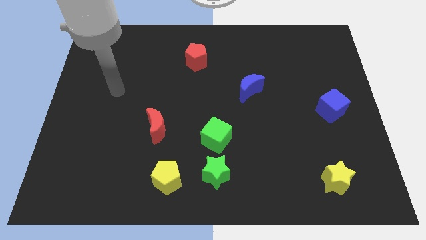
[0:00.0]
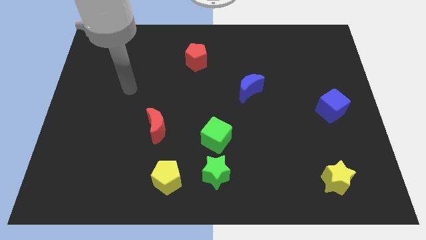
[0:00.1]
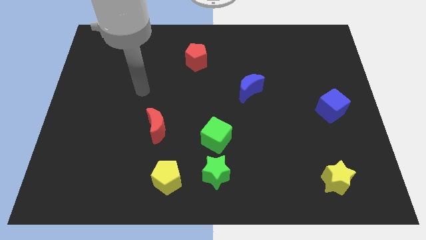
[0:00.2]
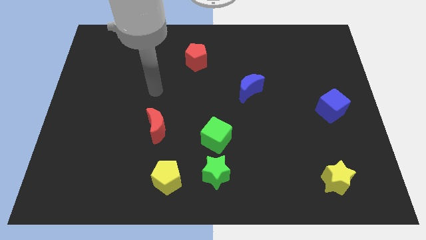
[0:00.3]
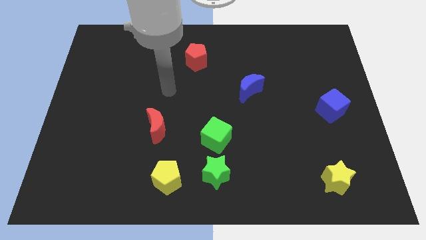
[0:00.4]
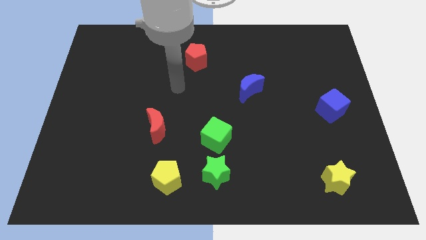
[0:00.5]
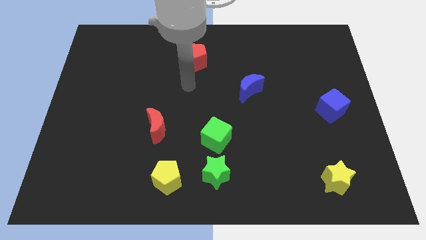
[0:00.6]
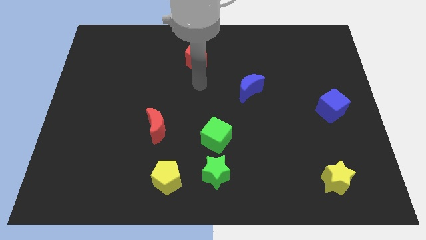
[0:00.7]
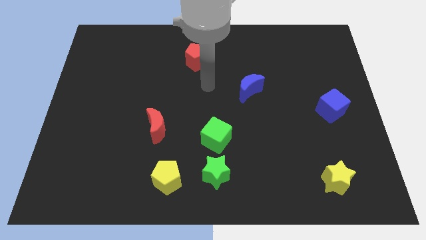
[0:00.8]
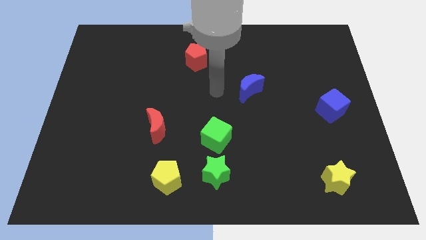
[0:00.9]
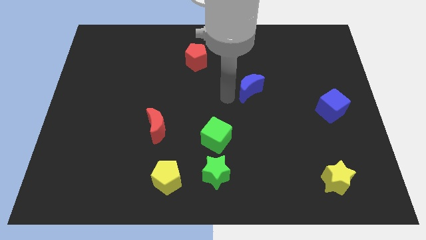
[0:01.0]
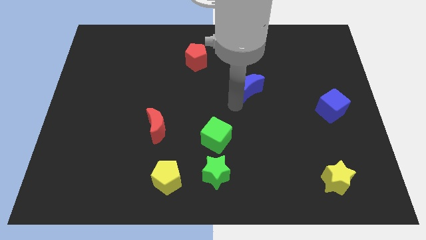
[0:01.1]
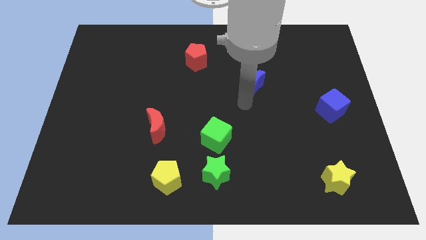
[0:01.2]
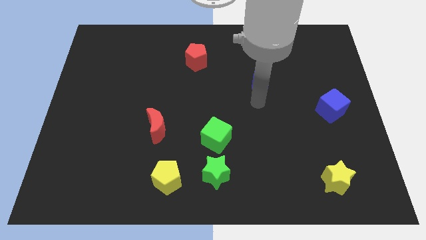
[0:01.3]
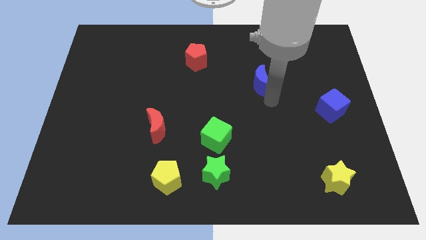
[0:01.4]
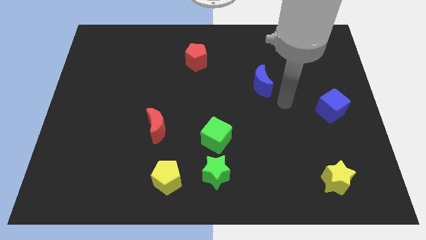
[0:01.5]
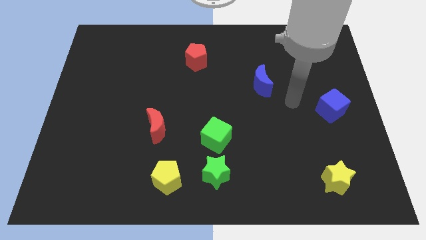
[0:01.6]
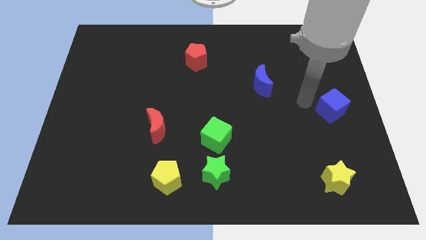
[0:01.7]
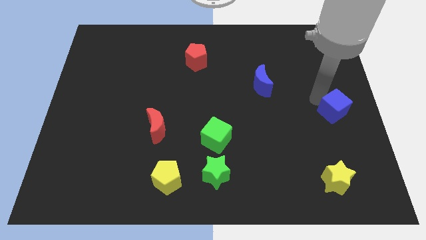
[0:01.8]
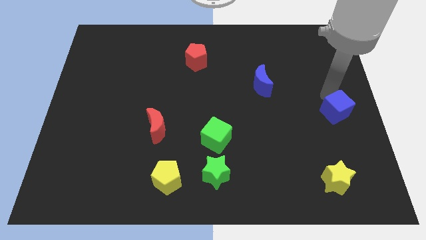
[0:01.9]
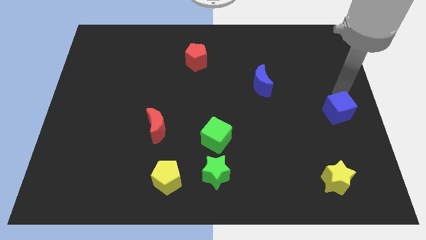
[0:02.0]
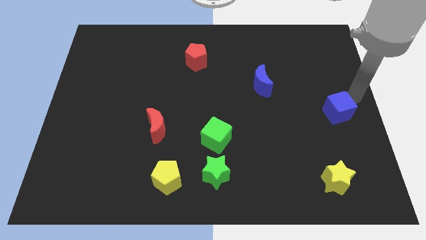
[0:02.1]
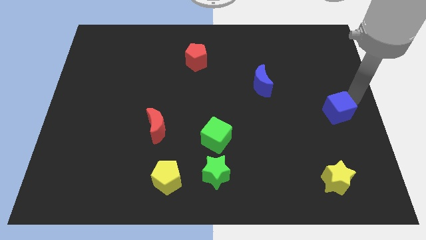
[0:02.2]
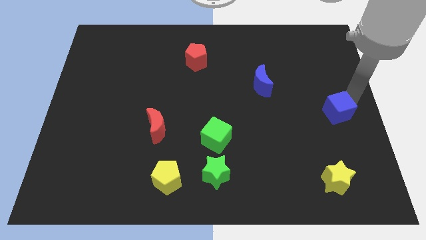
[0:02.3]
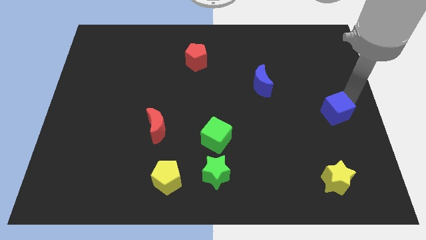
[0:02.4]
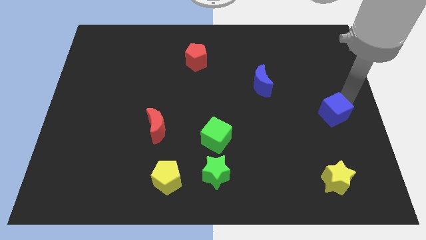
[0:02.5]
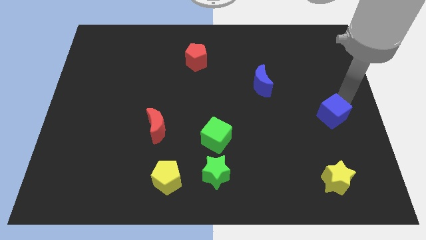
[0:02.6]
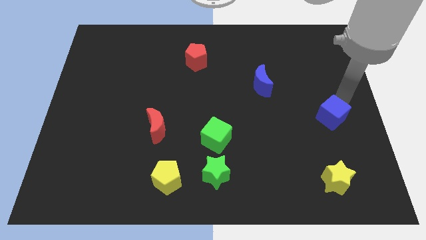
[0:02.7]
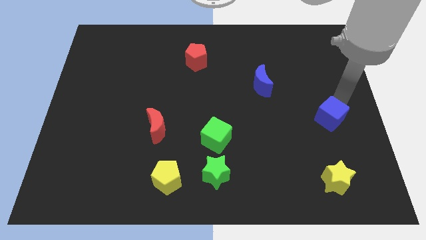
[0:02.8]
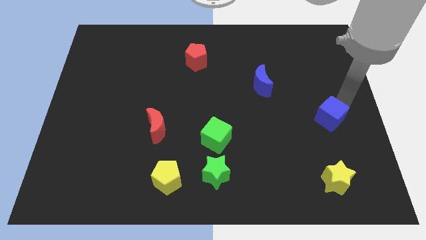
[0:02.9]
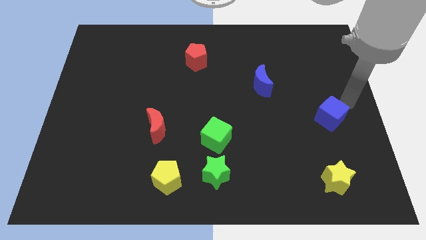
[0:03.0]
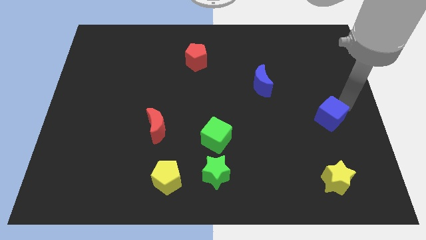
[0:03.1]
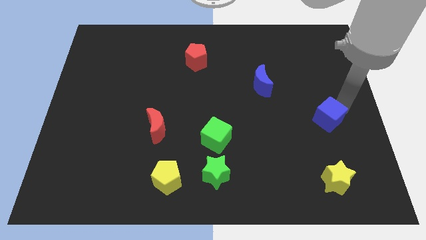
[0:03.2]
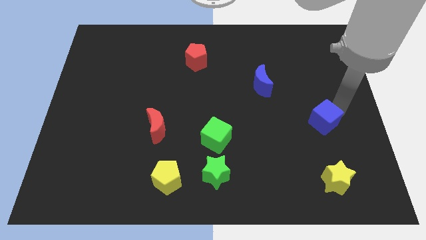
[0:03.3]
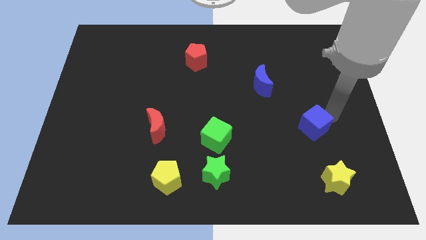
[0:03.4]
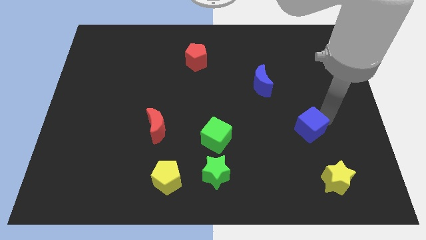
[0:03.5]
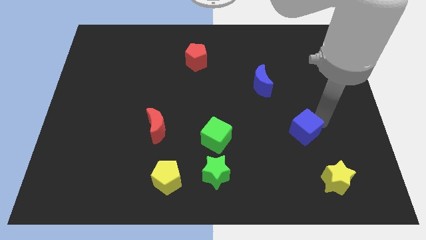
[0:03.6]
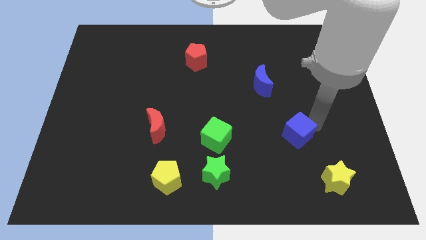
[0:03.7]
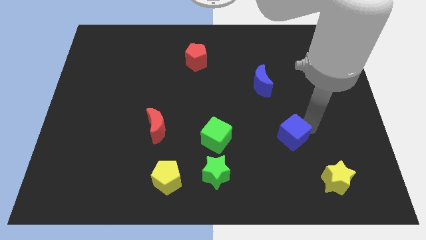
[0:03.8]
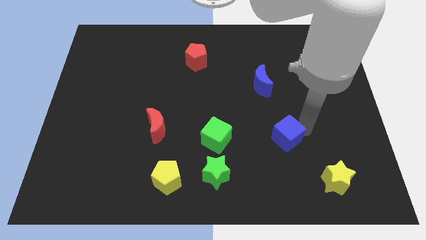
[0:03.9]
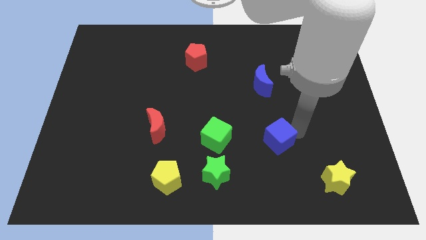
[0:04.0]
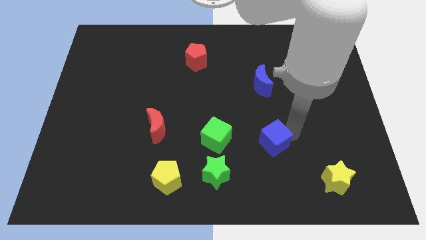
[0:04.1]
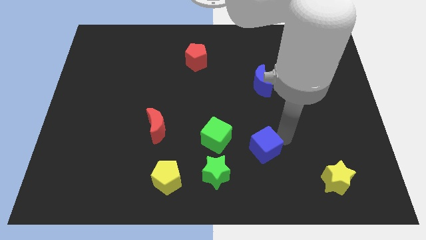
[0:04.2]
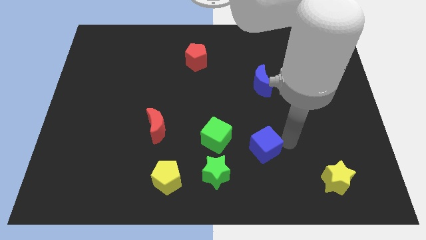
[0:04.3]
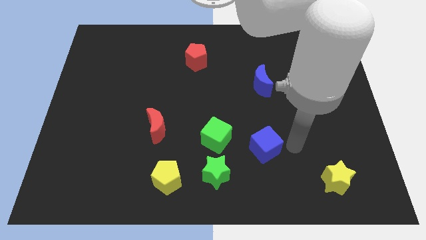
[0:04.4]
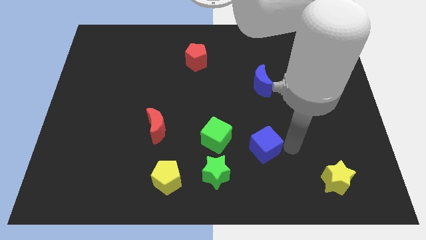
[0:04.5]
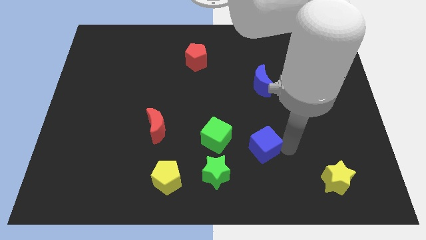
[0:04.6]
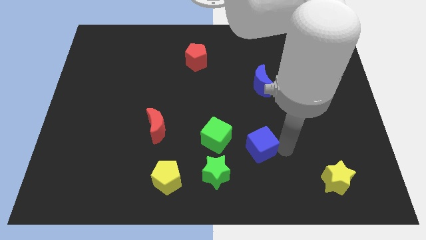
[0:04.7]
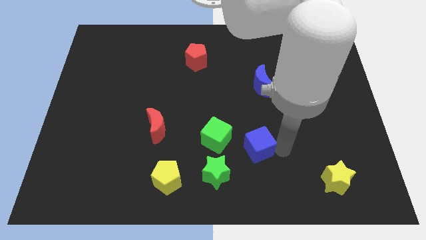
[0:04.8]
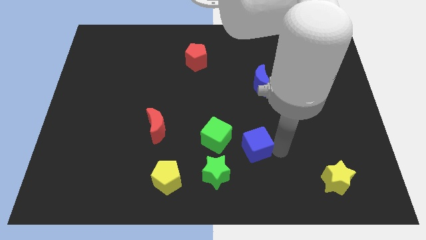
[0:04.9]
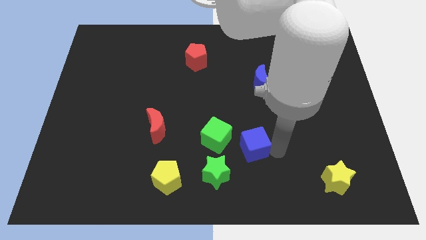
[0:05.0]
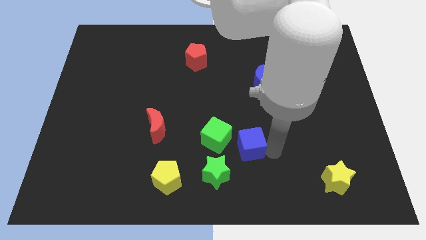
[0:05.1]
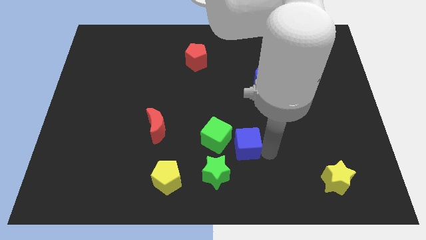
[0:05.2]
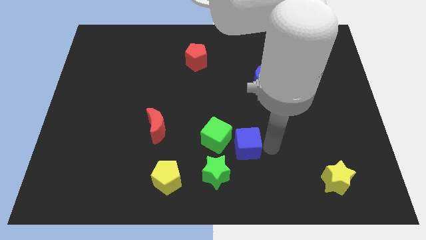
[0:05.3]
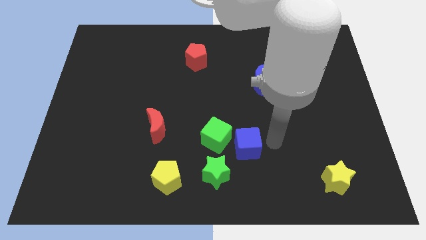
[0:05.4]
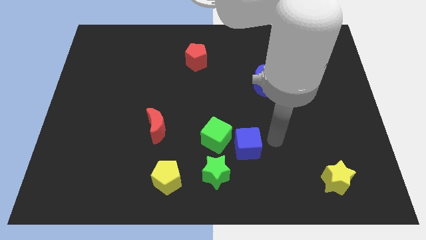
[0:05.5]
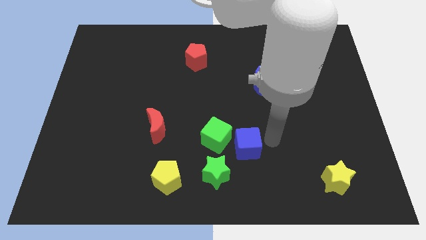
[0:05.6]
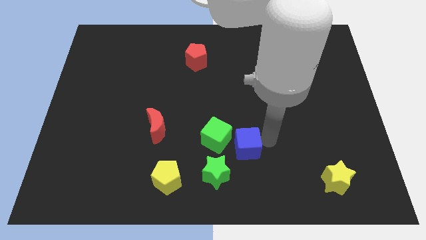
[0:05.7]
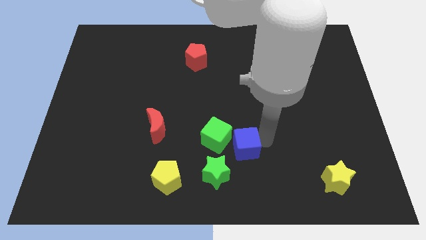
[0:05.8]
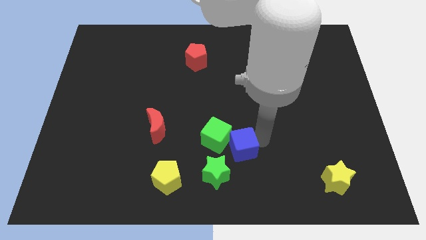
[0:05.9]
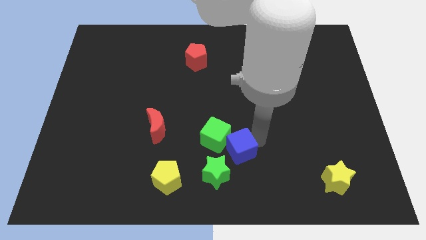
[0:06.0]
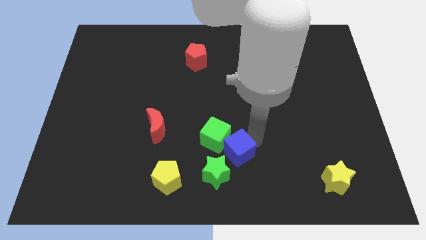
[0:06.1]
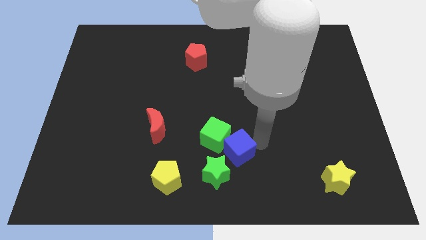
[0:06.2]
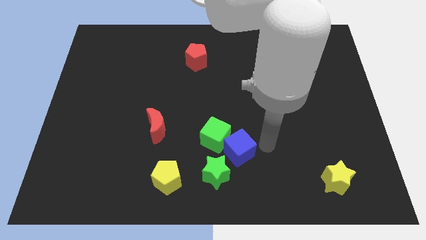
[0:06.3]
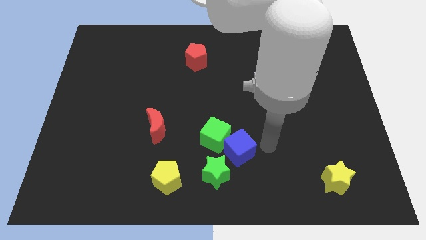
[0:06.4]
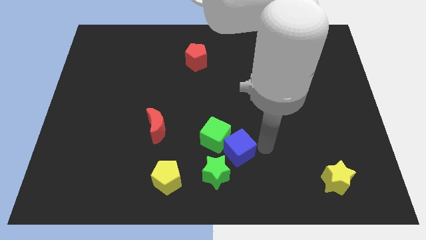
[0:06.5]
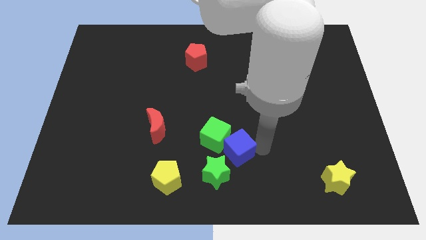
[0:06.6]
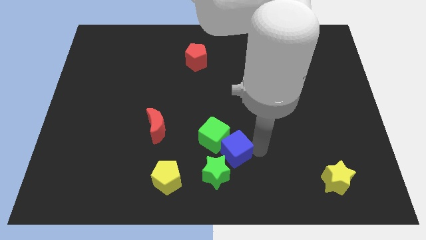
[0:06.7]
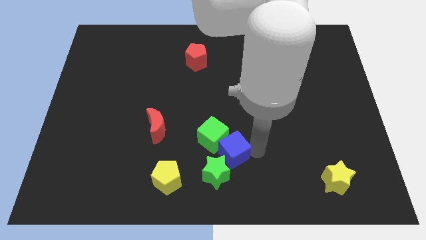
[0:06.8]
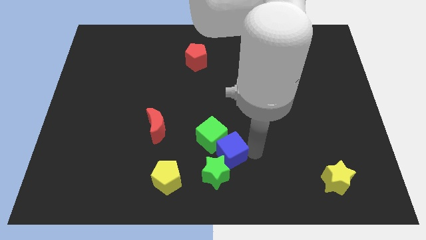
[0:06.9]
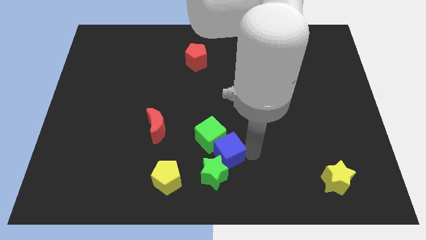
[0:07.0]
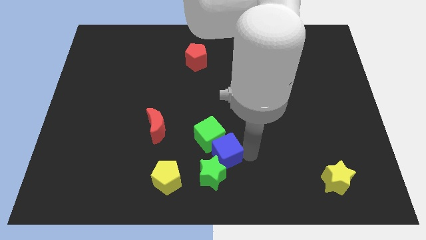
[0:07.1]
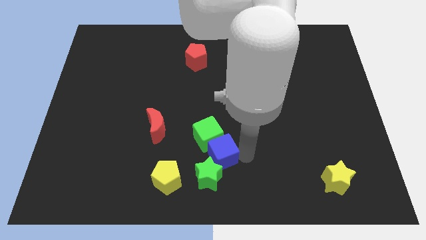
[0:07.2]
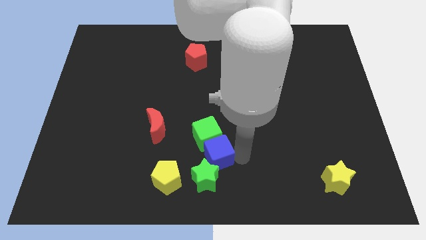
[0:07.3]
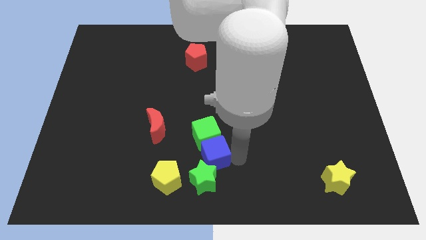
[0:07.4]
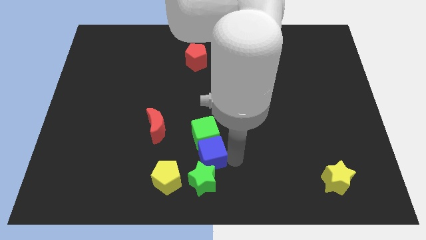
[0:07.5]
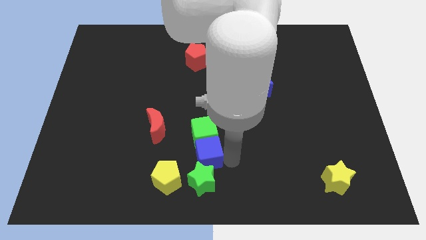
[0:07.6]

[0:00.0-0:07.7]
move the blue cube to the top left side of the green star

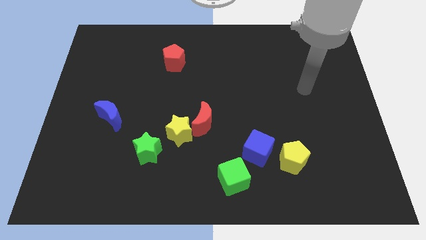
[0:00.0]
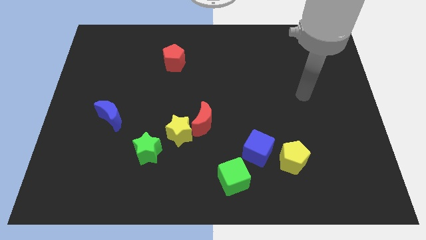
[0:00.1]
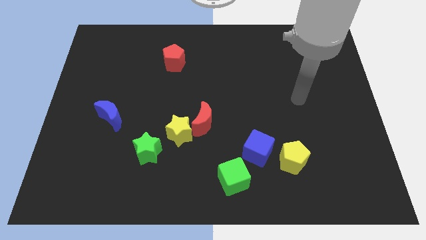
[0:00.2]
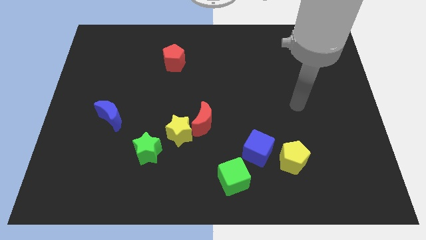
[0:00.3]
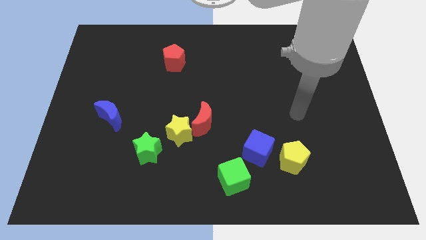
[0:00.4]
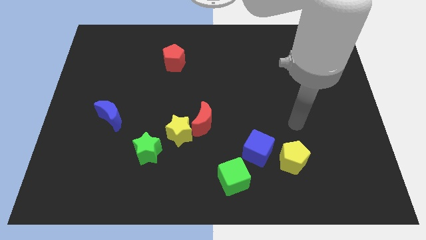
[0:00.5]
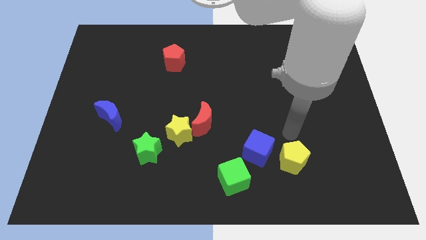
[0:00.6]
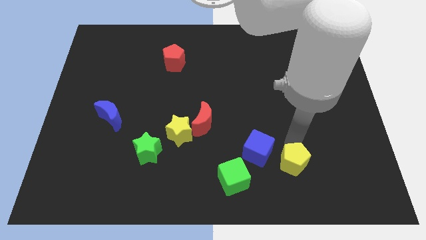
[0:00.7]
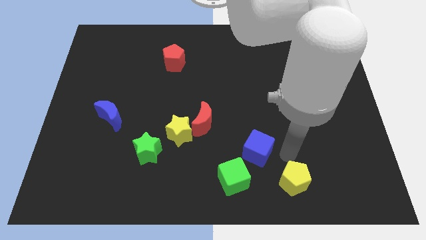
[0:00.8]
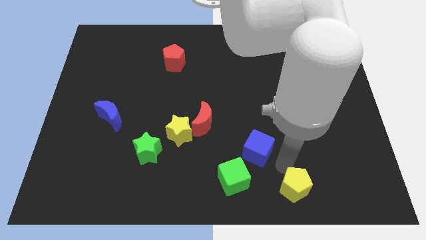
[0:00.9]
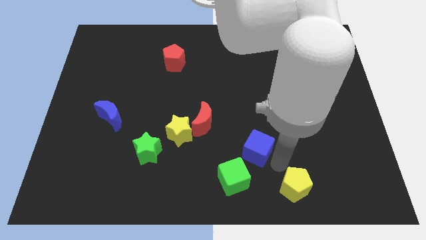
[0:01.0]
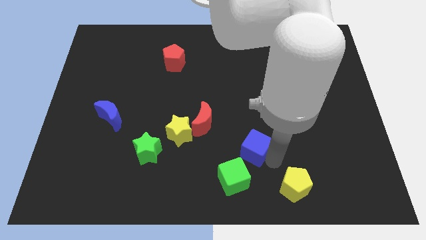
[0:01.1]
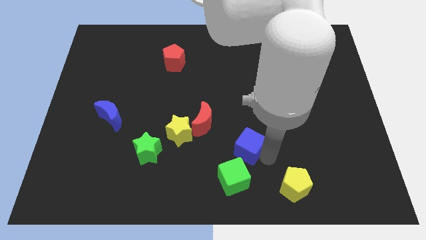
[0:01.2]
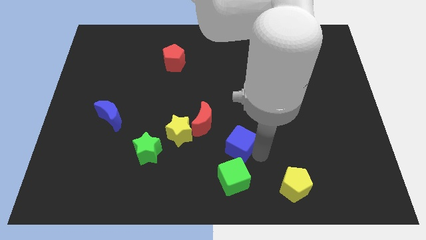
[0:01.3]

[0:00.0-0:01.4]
put the blue cube right of the yellow star
